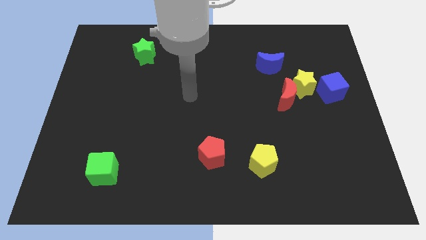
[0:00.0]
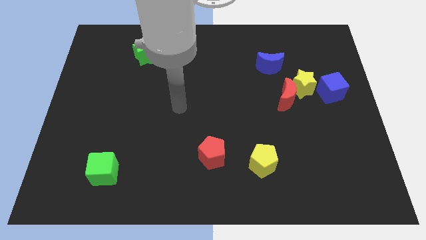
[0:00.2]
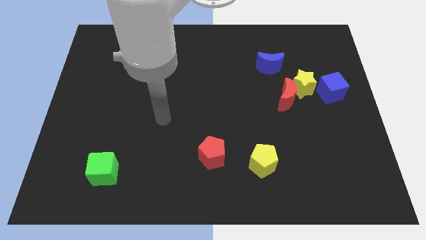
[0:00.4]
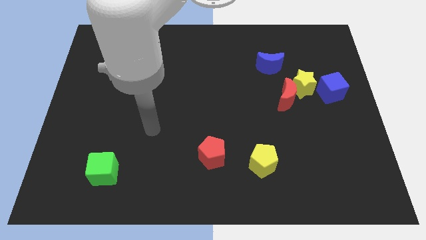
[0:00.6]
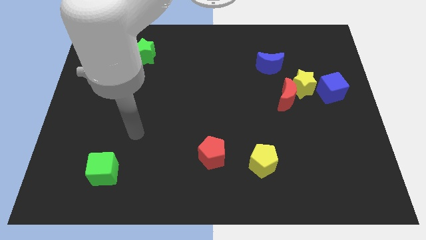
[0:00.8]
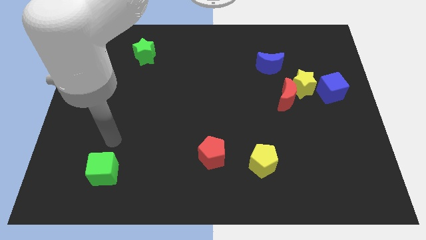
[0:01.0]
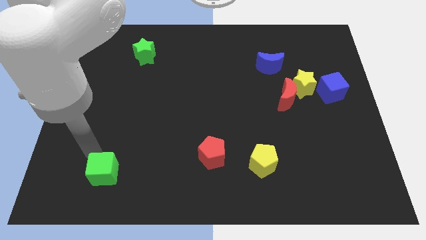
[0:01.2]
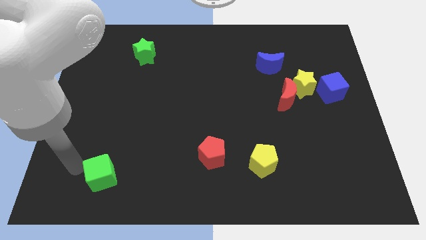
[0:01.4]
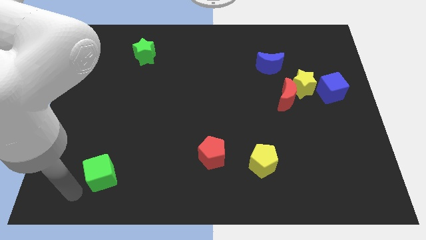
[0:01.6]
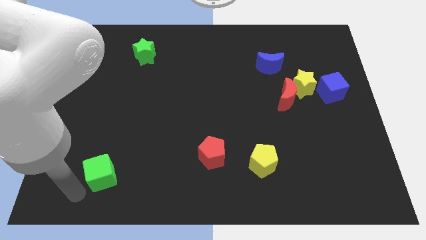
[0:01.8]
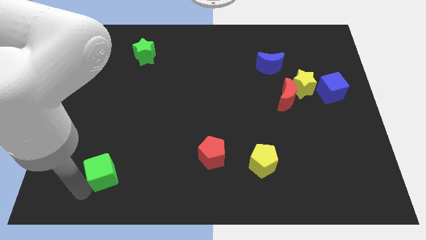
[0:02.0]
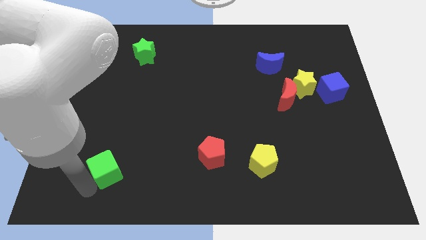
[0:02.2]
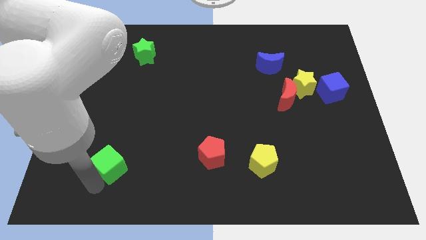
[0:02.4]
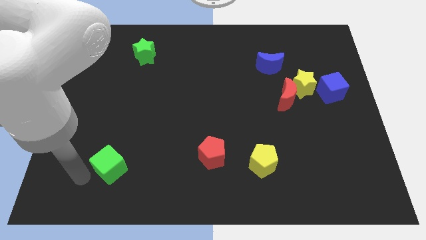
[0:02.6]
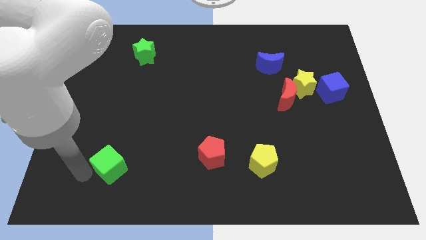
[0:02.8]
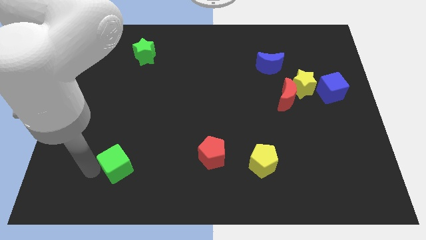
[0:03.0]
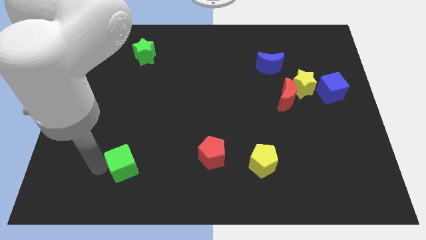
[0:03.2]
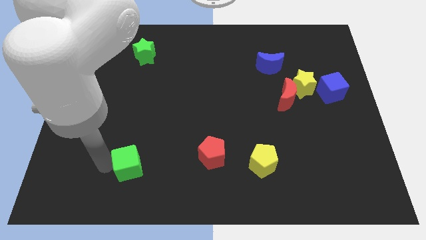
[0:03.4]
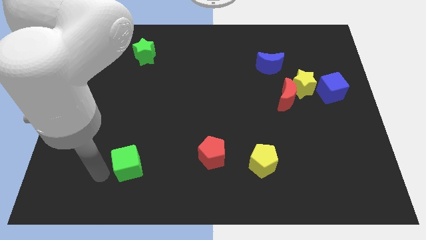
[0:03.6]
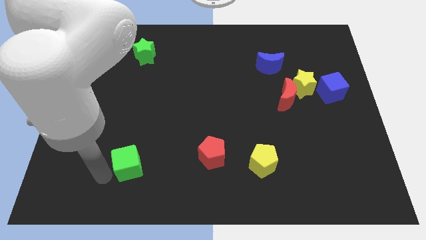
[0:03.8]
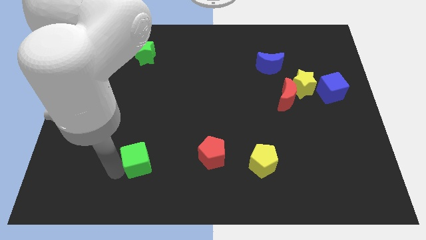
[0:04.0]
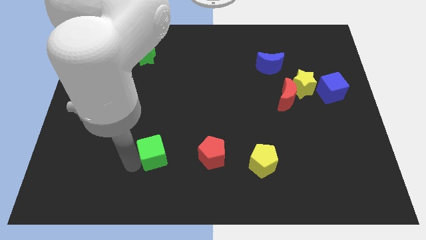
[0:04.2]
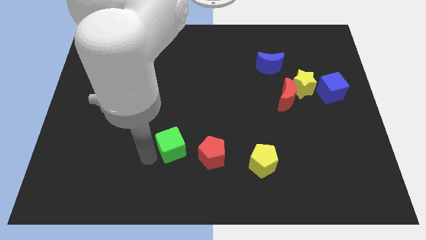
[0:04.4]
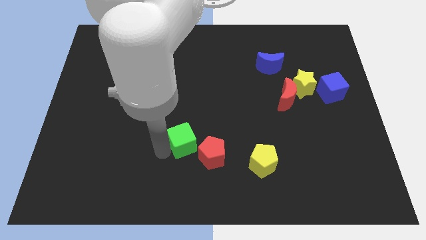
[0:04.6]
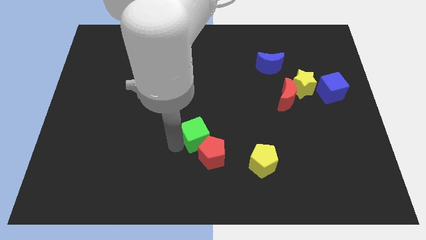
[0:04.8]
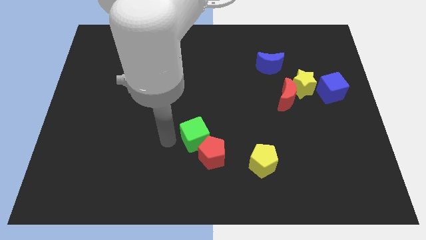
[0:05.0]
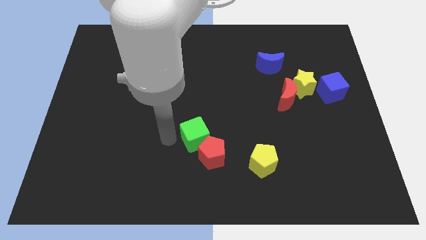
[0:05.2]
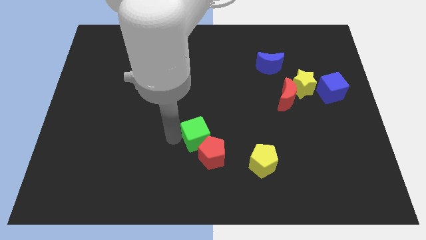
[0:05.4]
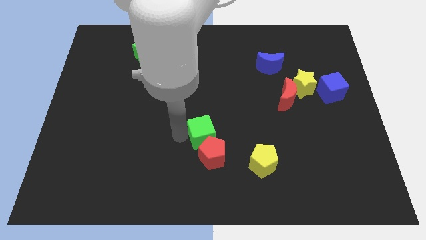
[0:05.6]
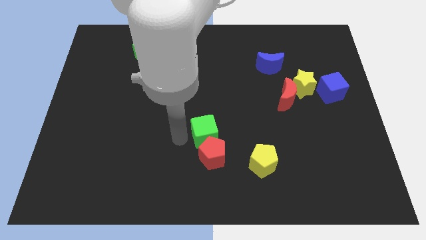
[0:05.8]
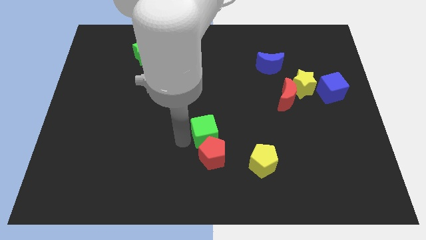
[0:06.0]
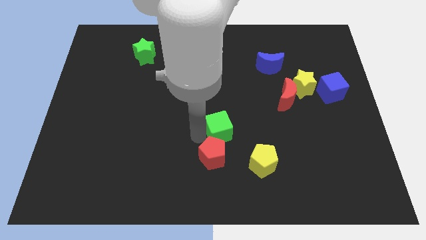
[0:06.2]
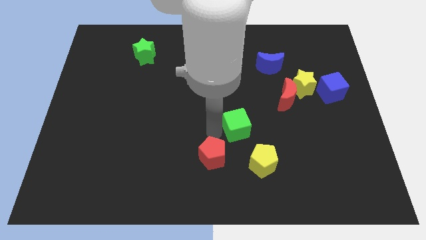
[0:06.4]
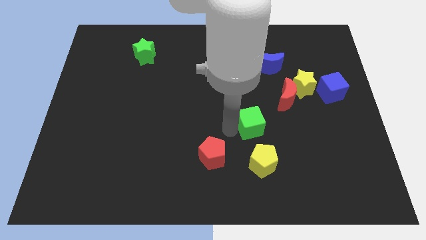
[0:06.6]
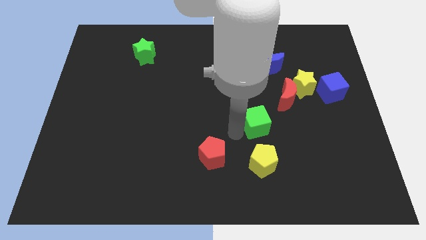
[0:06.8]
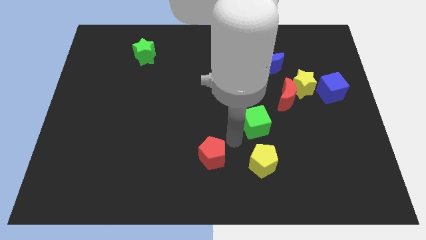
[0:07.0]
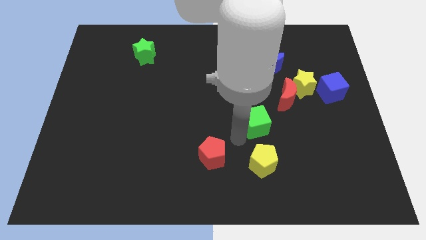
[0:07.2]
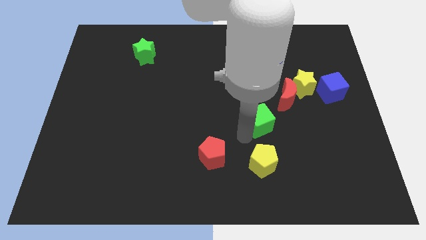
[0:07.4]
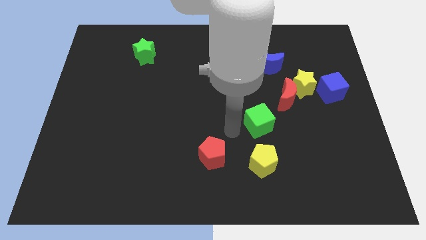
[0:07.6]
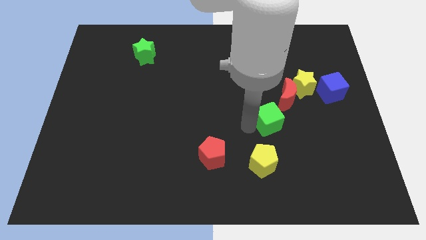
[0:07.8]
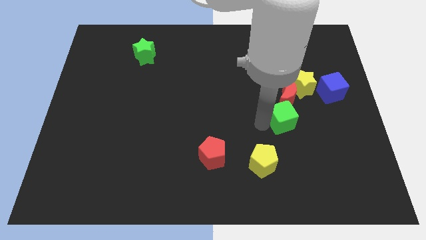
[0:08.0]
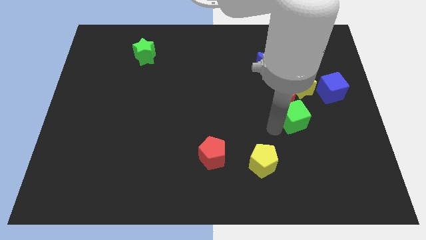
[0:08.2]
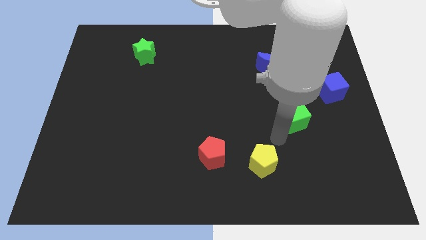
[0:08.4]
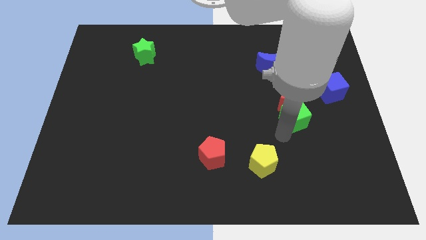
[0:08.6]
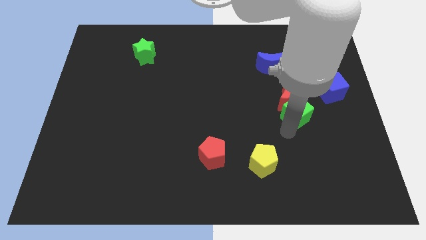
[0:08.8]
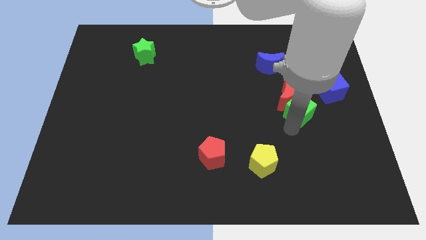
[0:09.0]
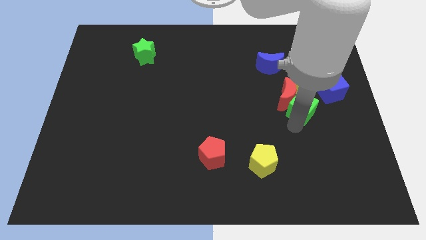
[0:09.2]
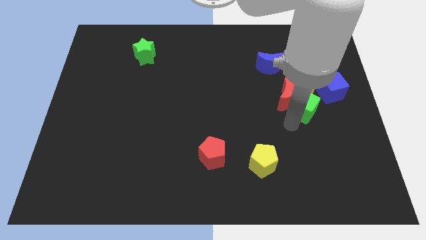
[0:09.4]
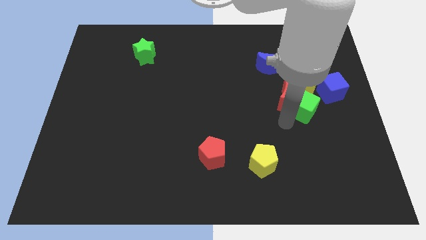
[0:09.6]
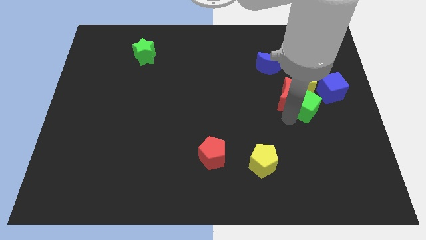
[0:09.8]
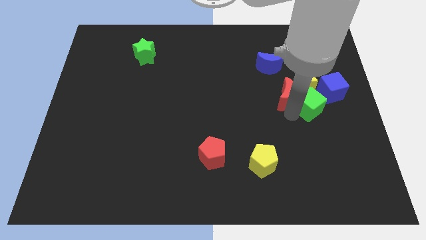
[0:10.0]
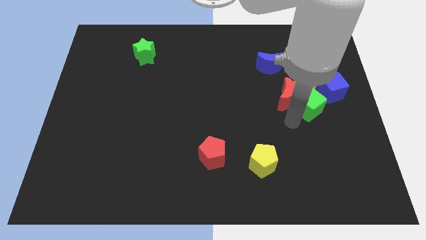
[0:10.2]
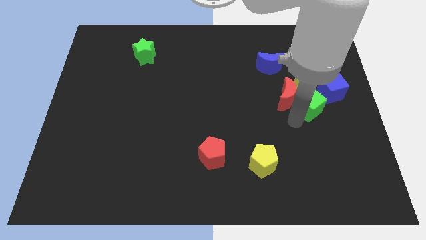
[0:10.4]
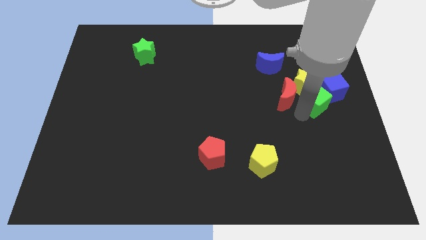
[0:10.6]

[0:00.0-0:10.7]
move the green cube towards the blue cube

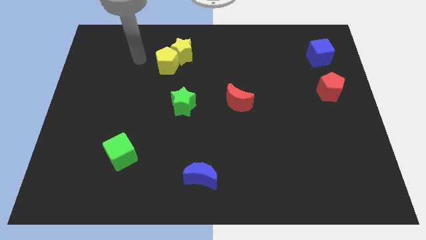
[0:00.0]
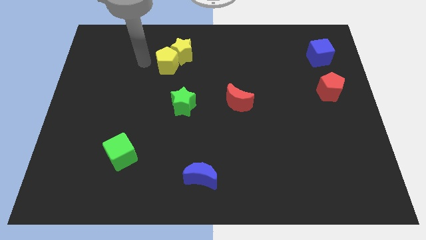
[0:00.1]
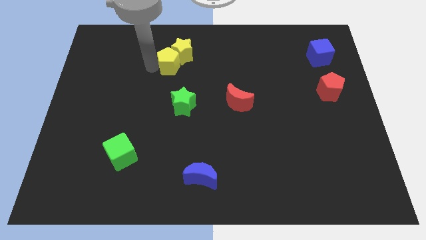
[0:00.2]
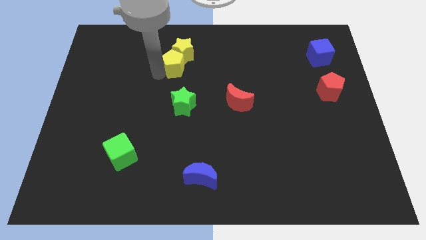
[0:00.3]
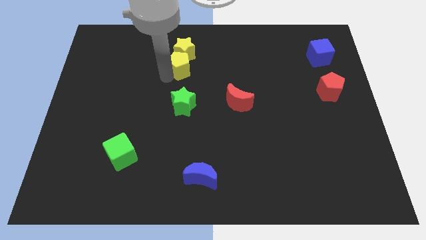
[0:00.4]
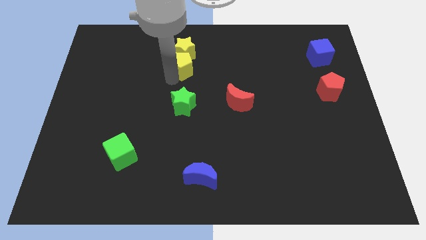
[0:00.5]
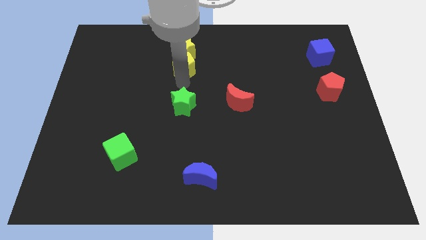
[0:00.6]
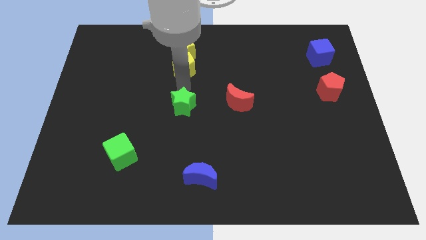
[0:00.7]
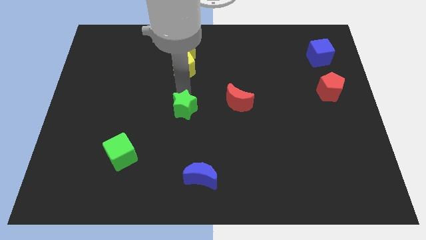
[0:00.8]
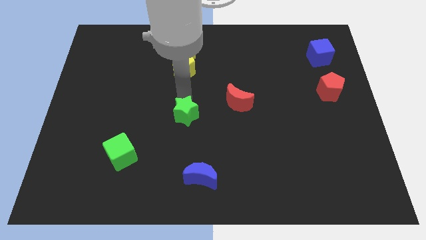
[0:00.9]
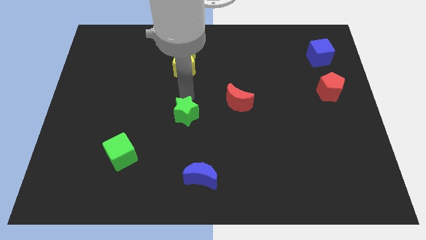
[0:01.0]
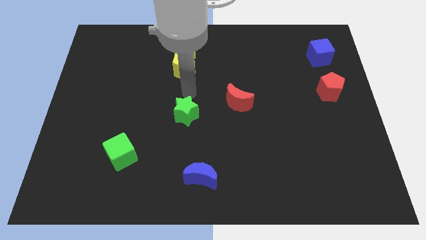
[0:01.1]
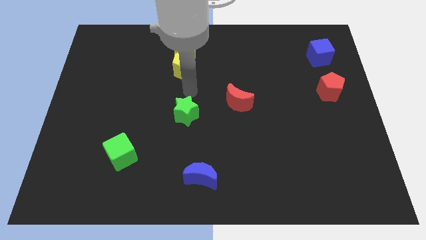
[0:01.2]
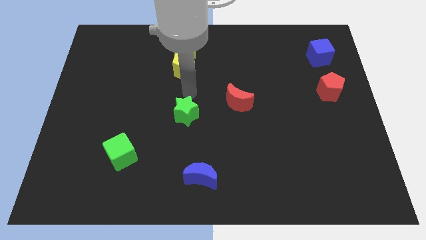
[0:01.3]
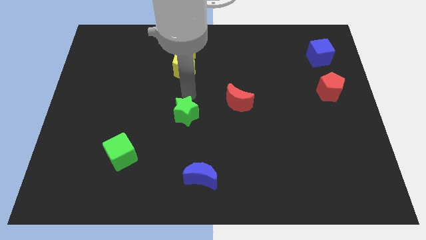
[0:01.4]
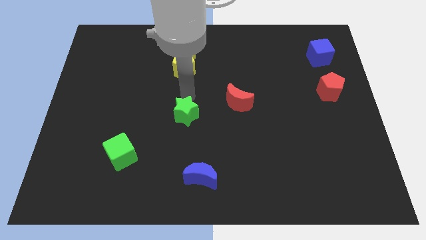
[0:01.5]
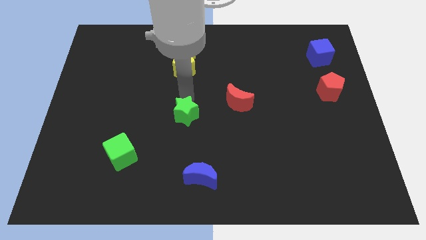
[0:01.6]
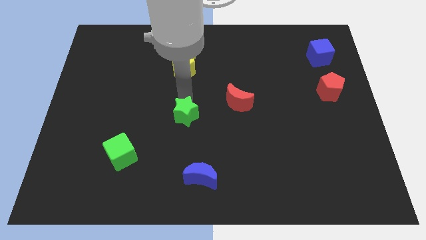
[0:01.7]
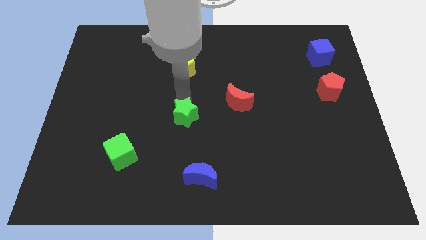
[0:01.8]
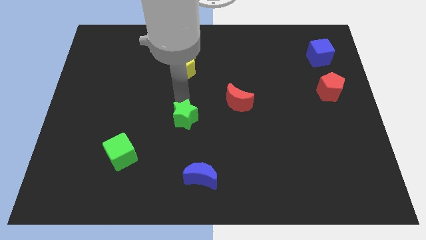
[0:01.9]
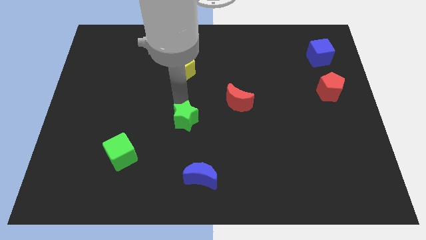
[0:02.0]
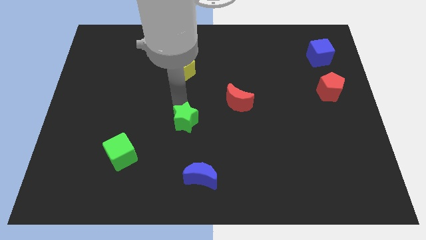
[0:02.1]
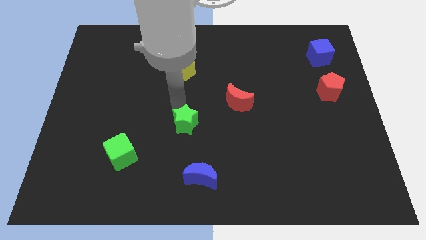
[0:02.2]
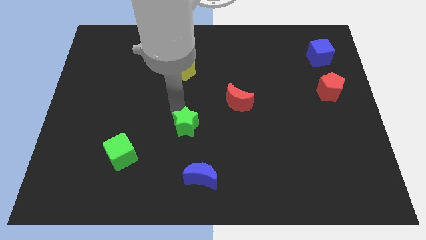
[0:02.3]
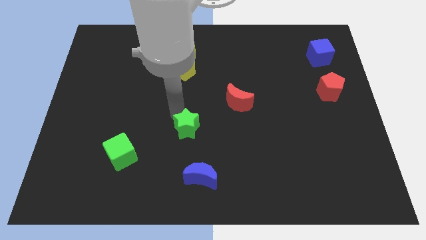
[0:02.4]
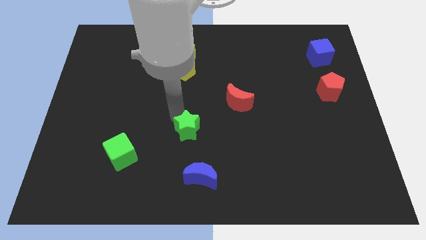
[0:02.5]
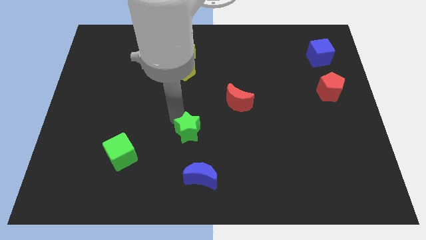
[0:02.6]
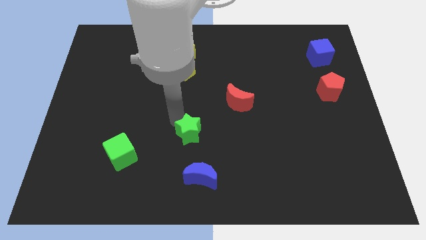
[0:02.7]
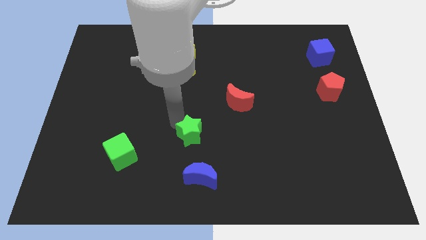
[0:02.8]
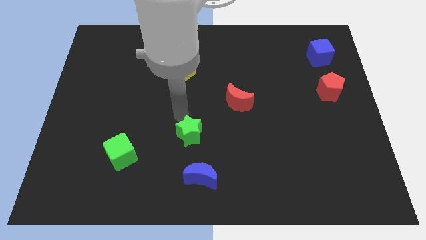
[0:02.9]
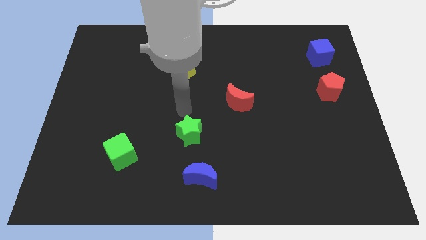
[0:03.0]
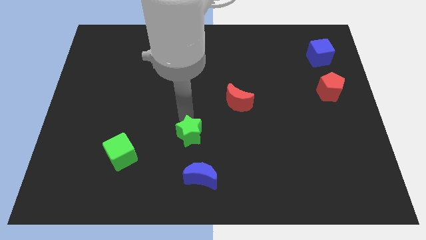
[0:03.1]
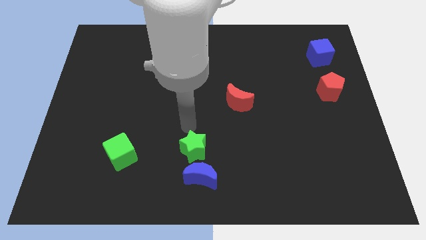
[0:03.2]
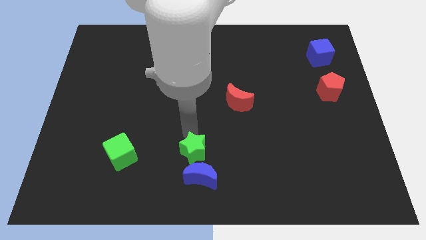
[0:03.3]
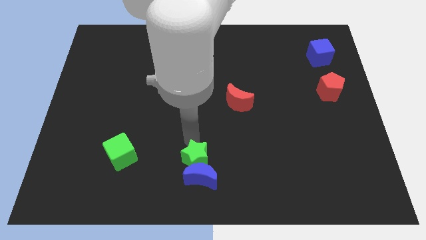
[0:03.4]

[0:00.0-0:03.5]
move the green star towards the blue moon
